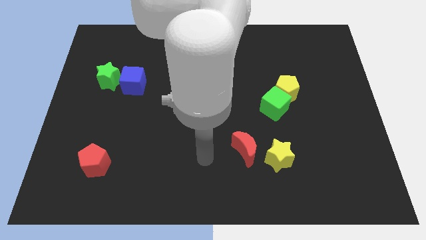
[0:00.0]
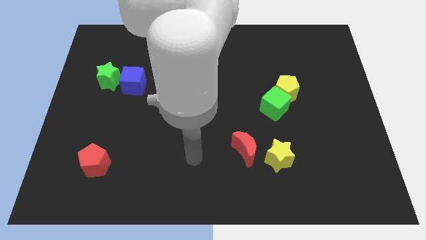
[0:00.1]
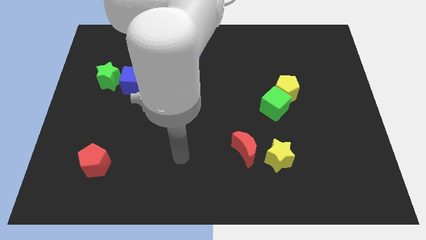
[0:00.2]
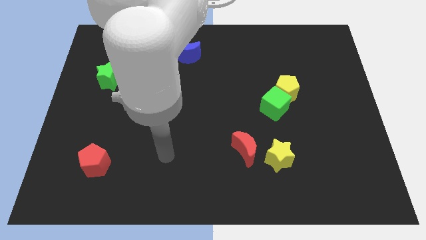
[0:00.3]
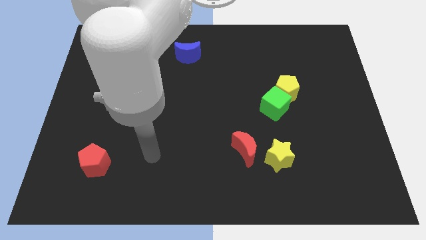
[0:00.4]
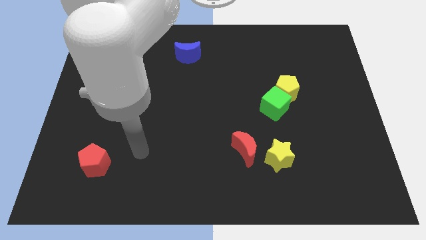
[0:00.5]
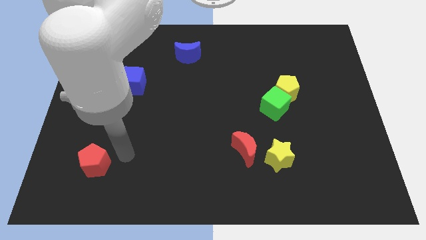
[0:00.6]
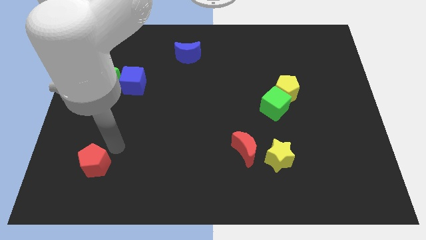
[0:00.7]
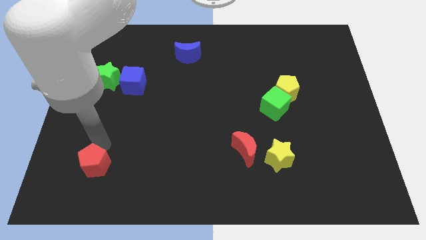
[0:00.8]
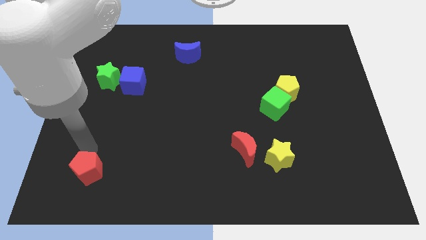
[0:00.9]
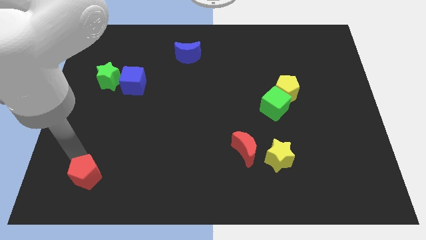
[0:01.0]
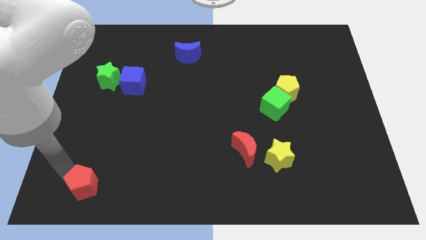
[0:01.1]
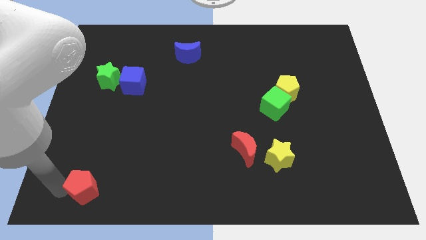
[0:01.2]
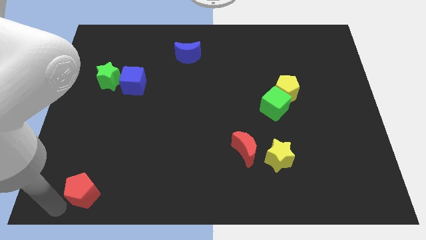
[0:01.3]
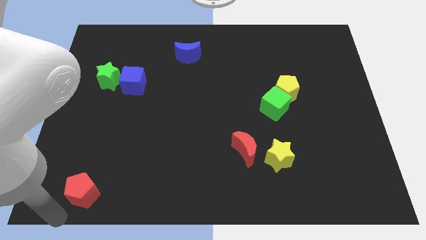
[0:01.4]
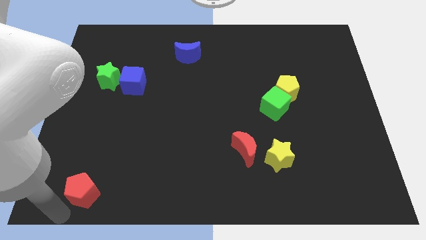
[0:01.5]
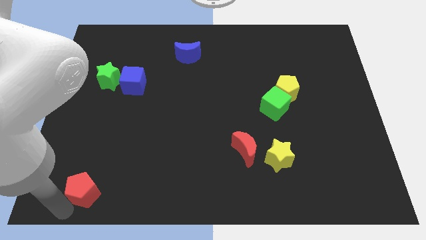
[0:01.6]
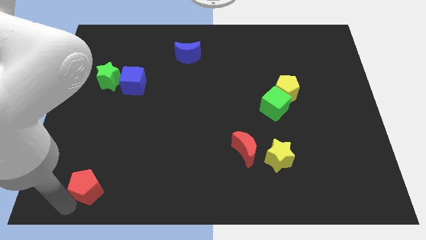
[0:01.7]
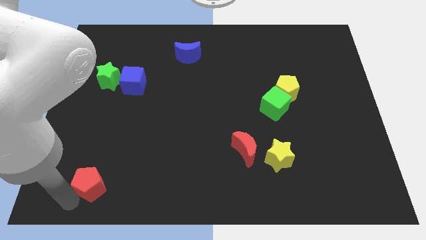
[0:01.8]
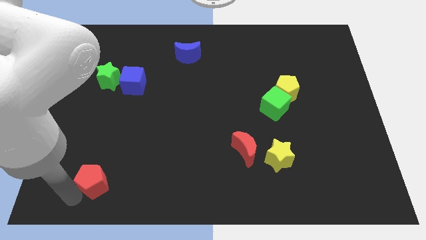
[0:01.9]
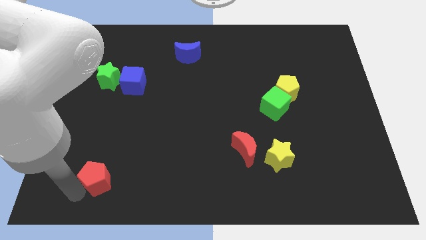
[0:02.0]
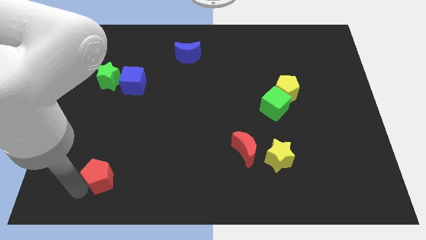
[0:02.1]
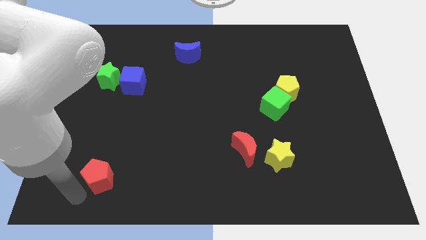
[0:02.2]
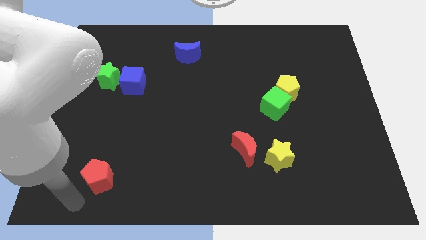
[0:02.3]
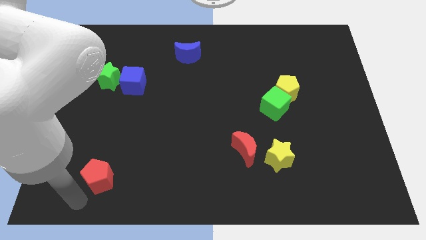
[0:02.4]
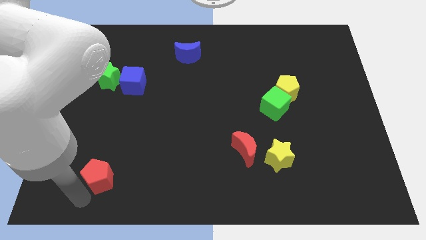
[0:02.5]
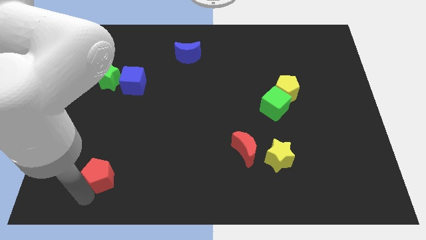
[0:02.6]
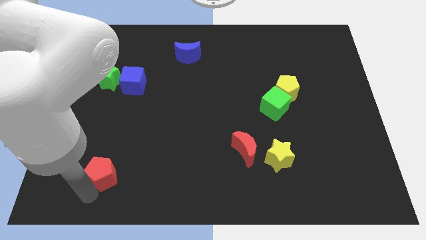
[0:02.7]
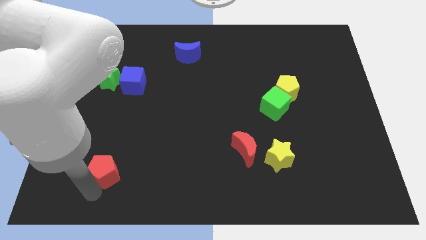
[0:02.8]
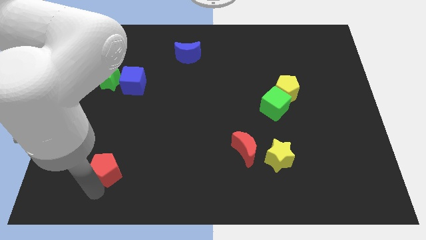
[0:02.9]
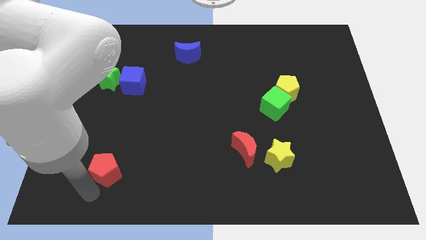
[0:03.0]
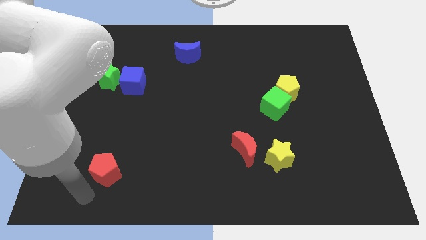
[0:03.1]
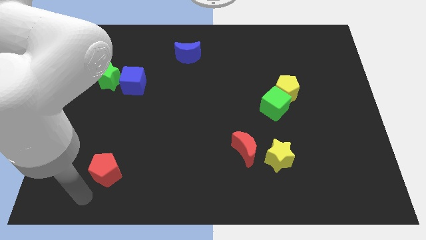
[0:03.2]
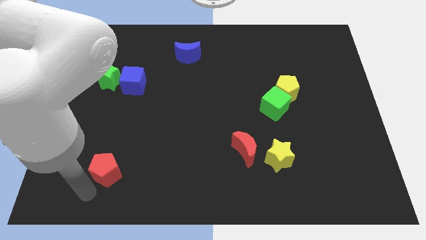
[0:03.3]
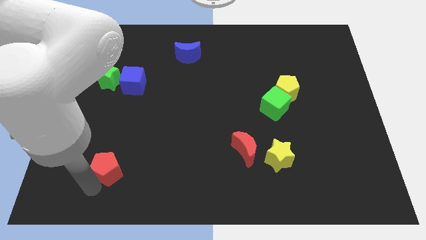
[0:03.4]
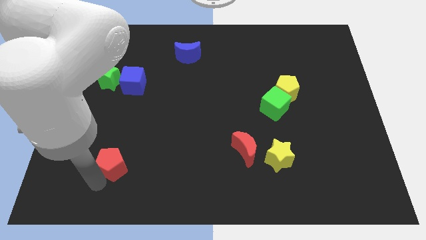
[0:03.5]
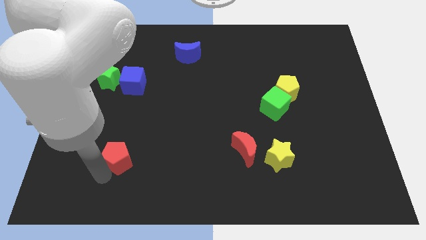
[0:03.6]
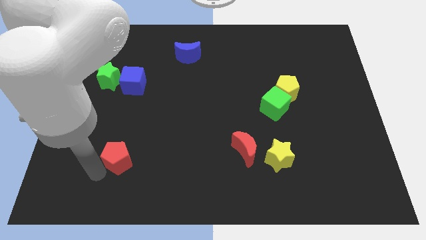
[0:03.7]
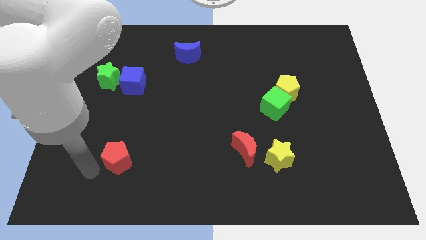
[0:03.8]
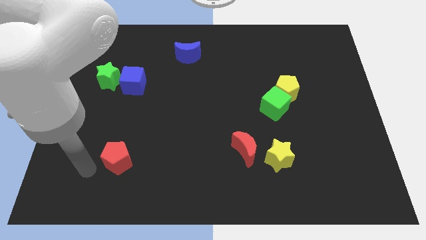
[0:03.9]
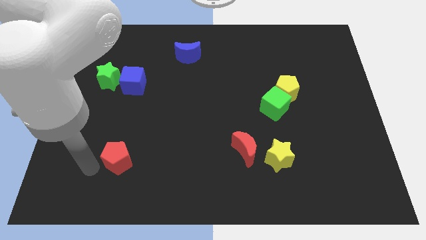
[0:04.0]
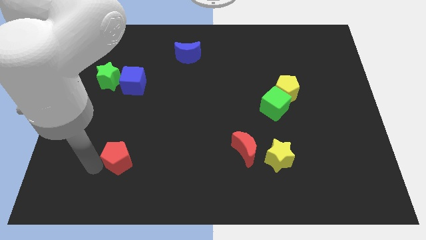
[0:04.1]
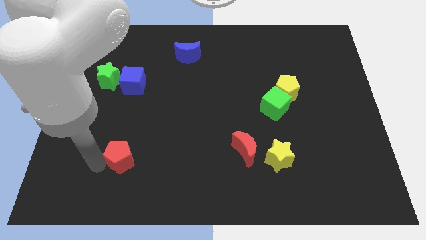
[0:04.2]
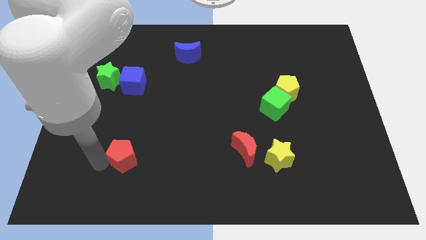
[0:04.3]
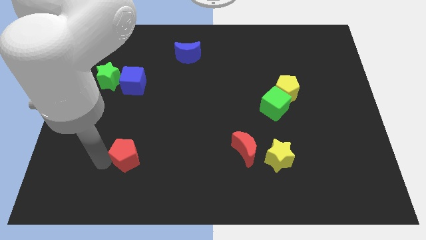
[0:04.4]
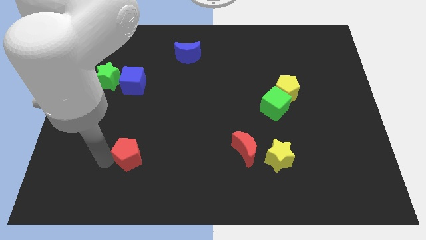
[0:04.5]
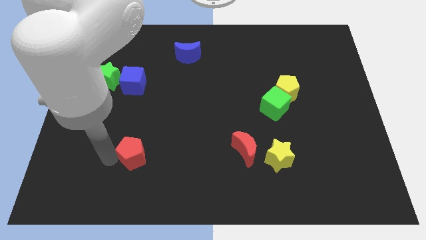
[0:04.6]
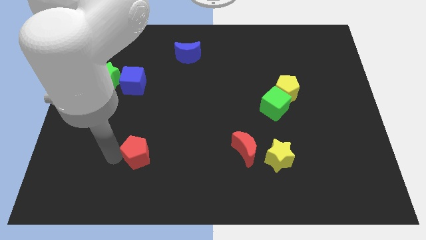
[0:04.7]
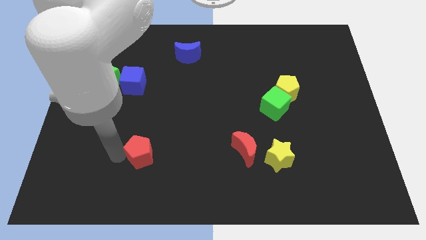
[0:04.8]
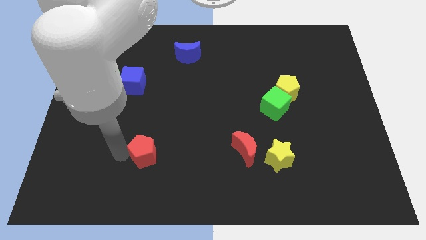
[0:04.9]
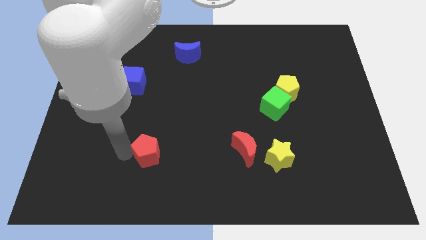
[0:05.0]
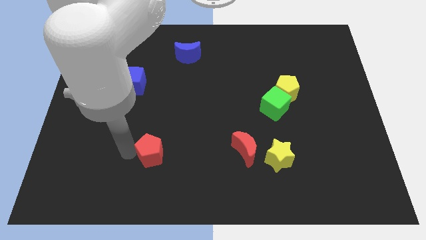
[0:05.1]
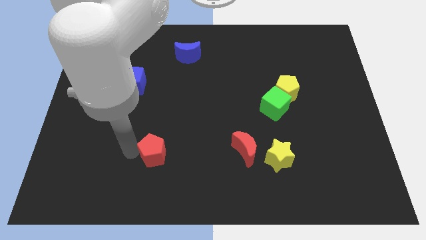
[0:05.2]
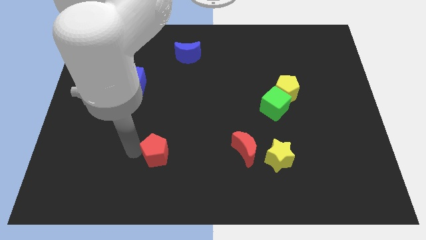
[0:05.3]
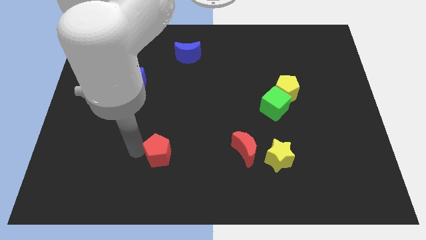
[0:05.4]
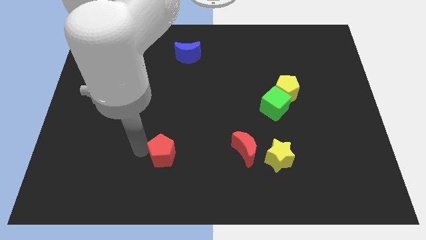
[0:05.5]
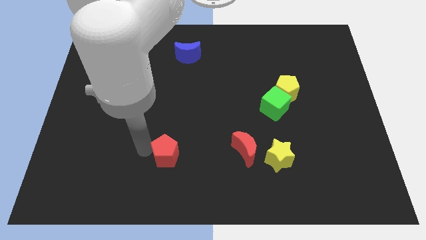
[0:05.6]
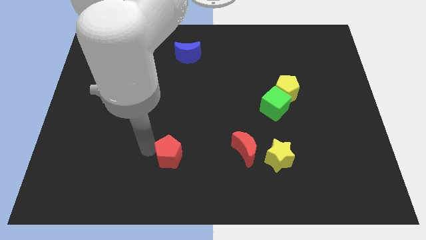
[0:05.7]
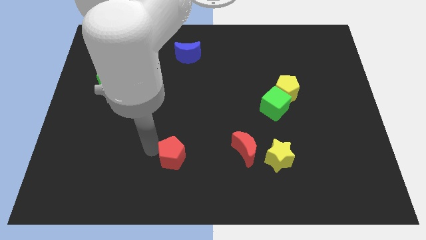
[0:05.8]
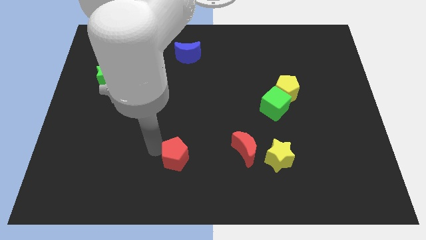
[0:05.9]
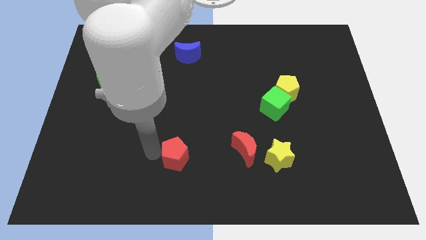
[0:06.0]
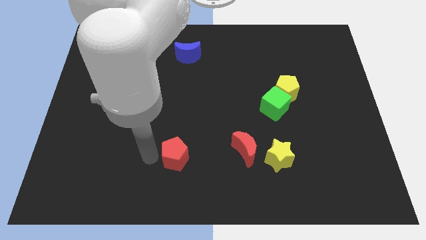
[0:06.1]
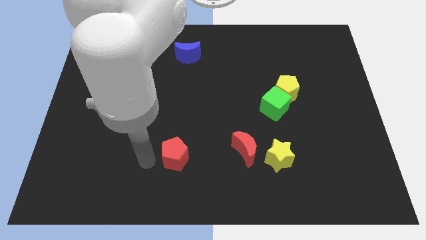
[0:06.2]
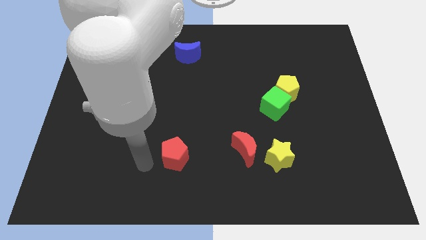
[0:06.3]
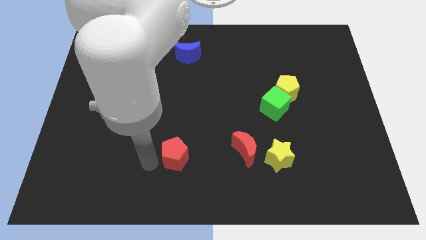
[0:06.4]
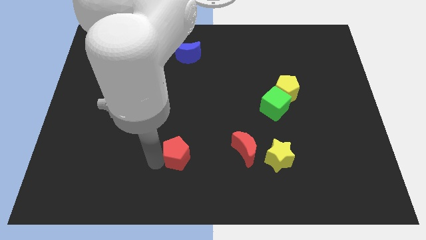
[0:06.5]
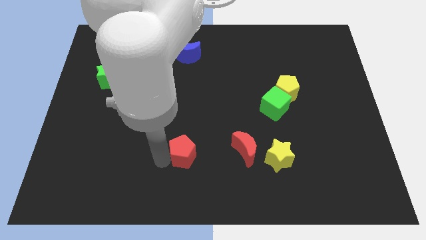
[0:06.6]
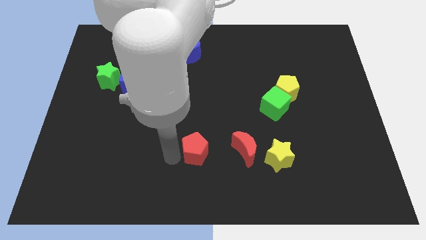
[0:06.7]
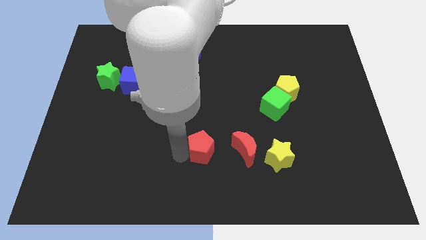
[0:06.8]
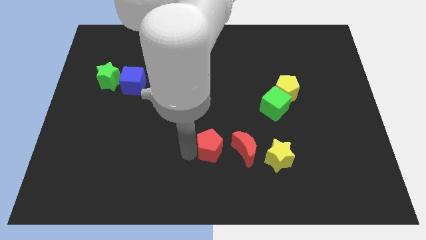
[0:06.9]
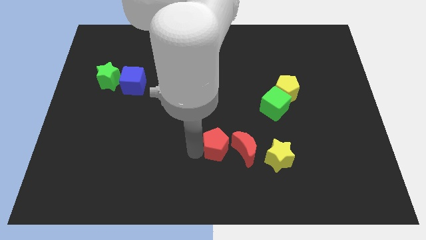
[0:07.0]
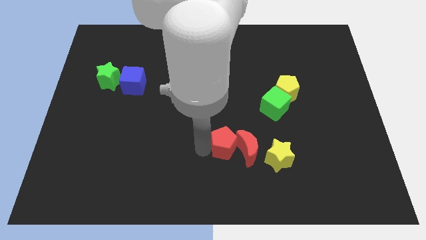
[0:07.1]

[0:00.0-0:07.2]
put the red pentagon to the red moon
